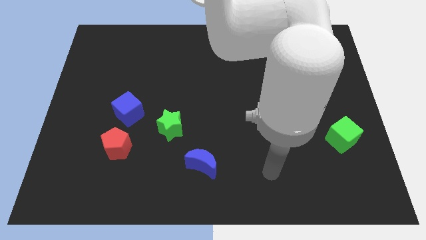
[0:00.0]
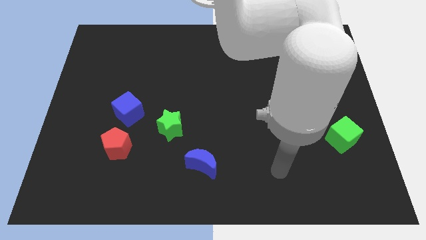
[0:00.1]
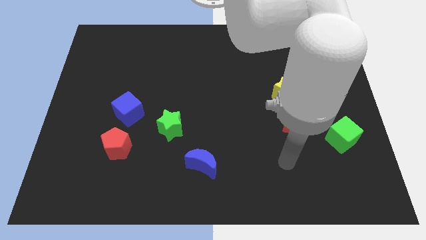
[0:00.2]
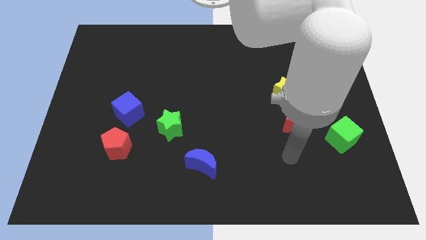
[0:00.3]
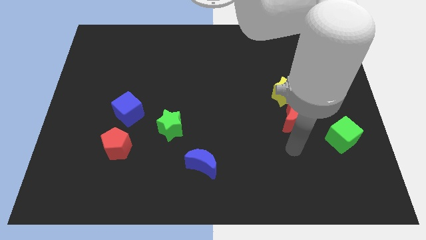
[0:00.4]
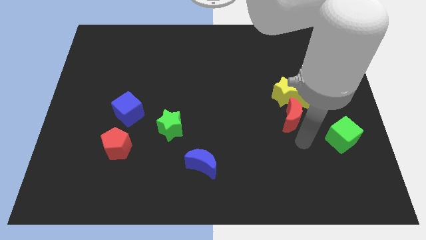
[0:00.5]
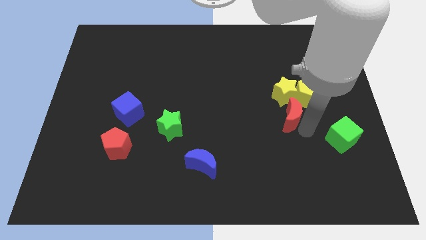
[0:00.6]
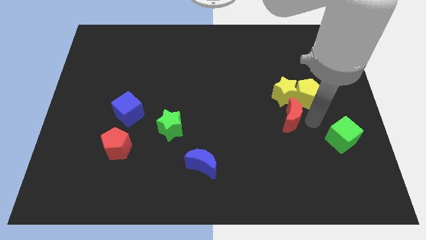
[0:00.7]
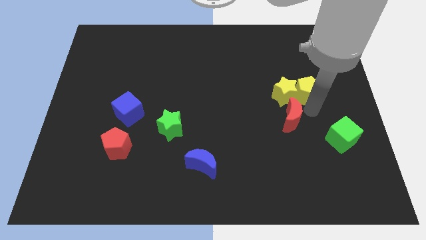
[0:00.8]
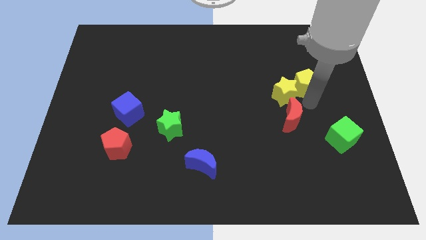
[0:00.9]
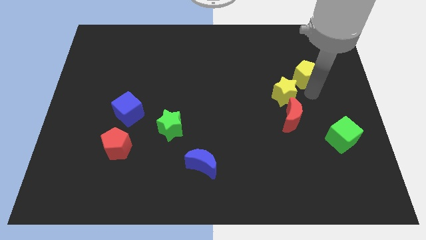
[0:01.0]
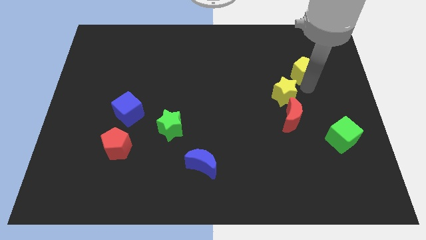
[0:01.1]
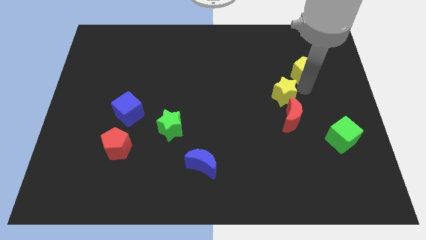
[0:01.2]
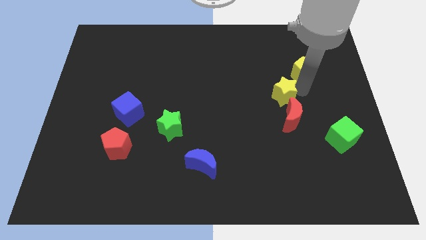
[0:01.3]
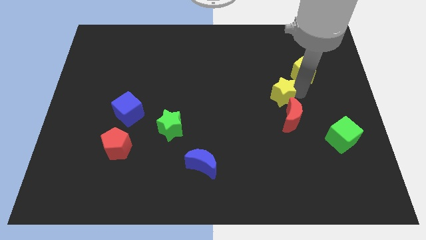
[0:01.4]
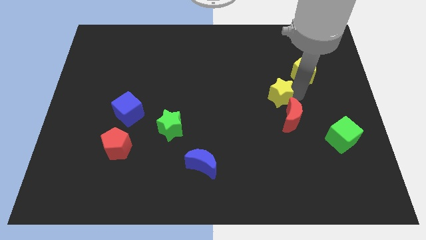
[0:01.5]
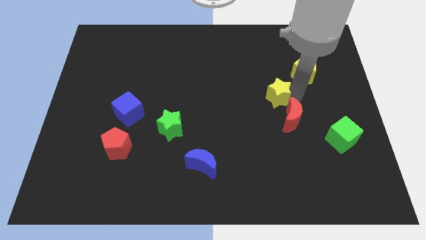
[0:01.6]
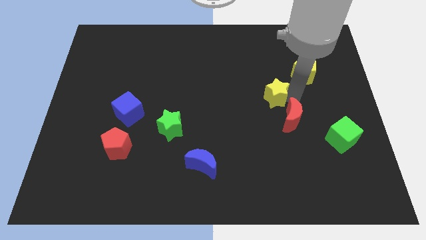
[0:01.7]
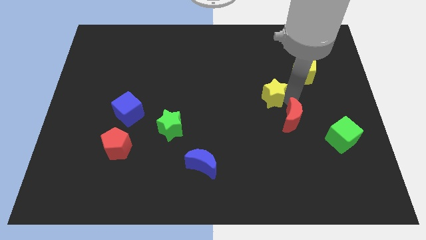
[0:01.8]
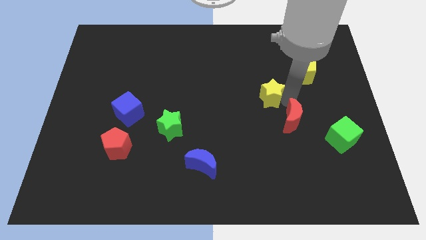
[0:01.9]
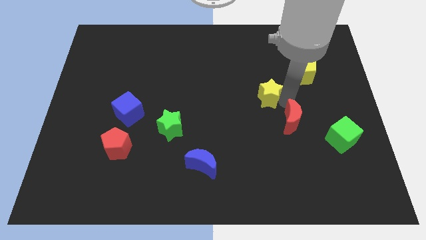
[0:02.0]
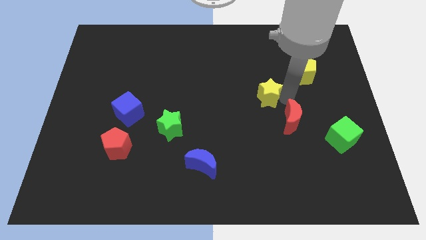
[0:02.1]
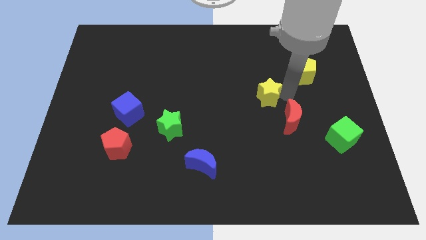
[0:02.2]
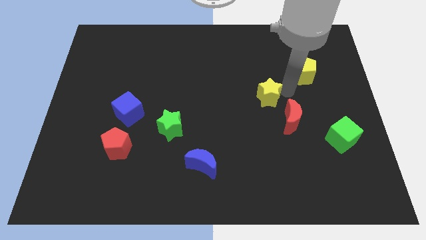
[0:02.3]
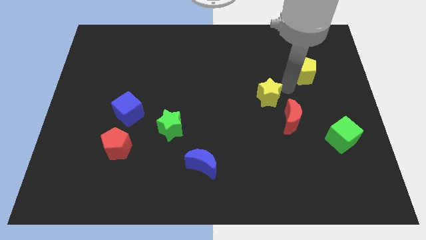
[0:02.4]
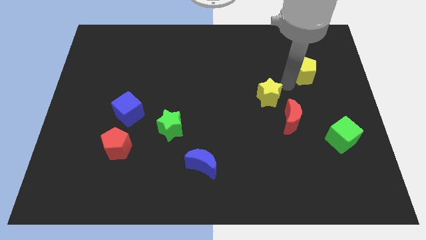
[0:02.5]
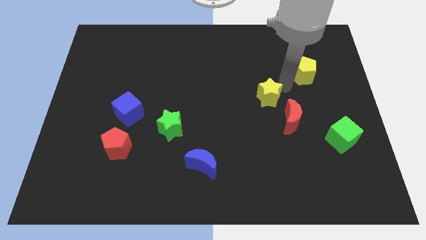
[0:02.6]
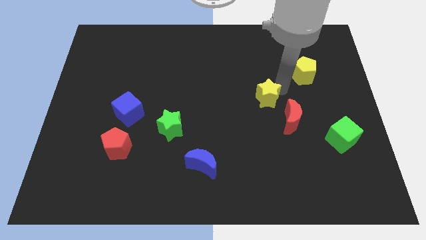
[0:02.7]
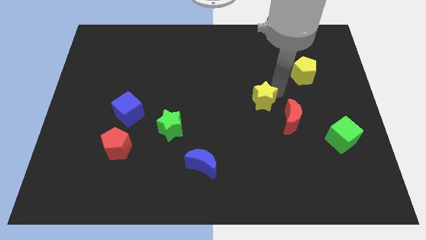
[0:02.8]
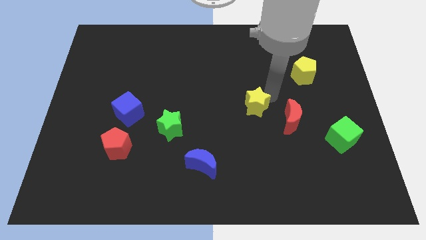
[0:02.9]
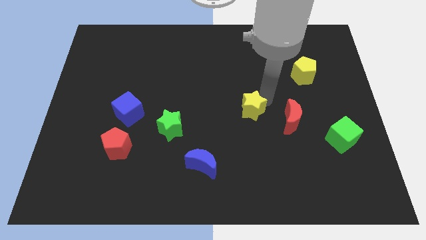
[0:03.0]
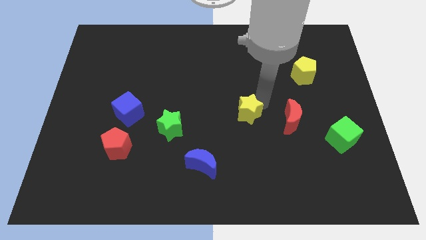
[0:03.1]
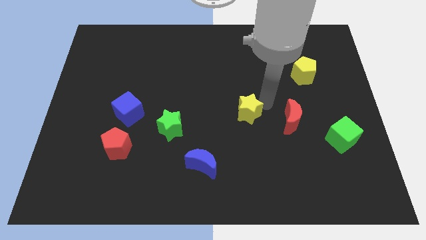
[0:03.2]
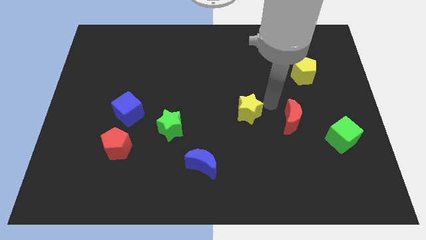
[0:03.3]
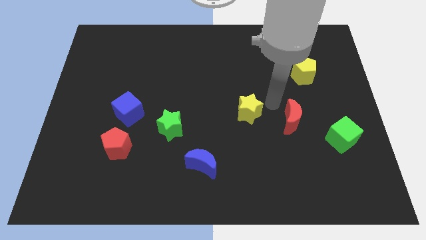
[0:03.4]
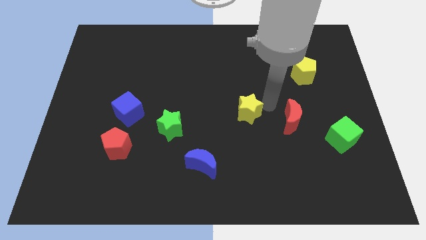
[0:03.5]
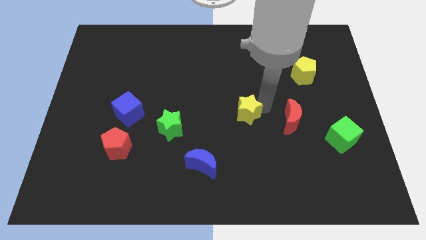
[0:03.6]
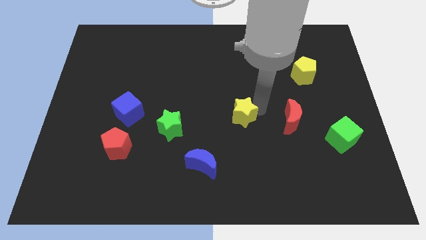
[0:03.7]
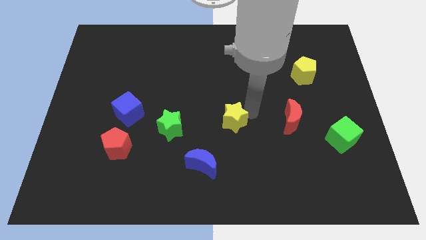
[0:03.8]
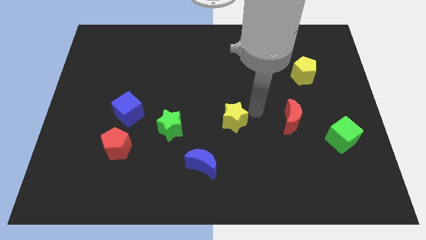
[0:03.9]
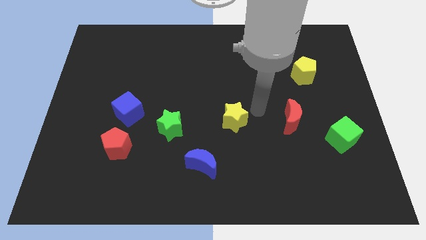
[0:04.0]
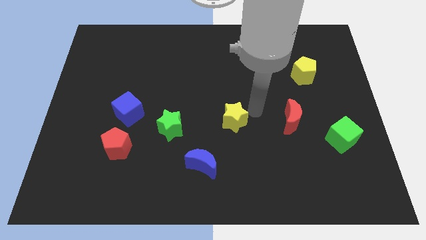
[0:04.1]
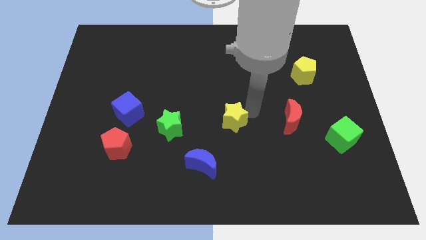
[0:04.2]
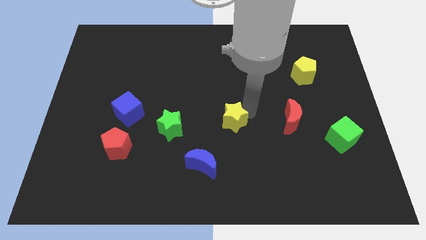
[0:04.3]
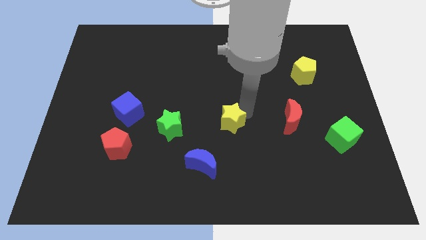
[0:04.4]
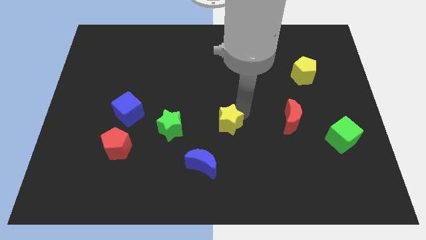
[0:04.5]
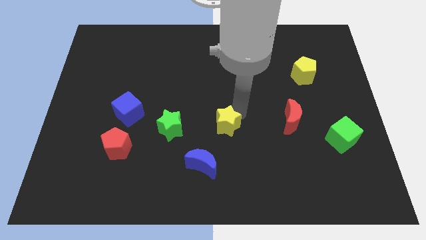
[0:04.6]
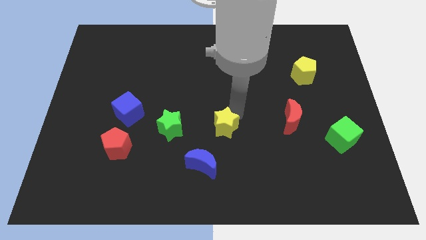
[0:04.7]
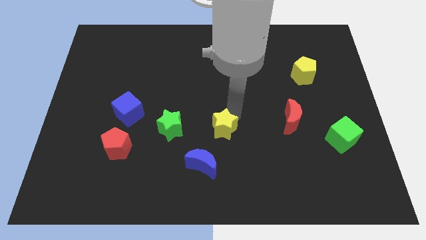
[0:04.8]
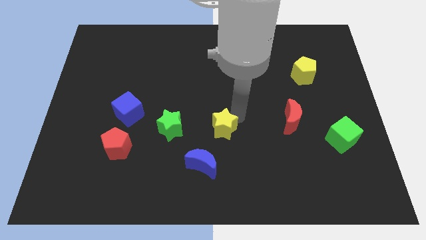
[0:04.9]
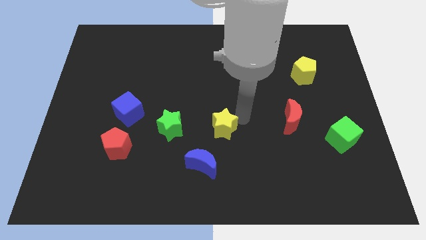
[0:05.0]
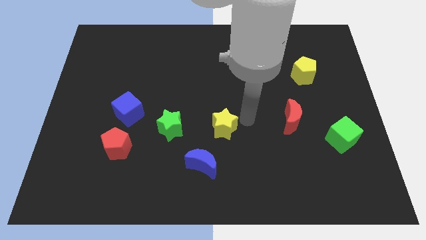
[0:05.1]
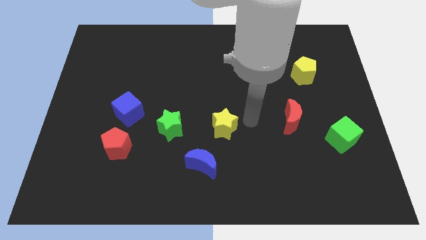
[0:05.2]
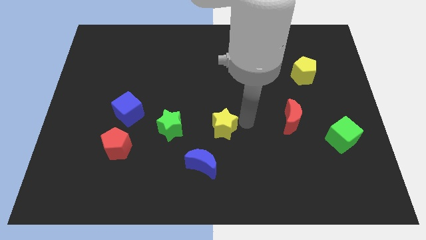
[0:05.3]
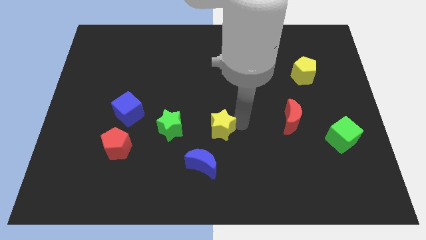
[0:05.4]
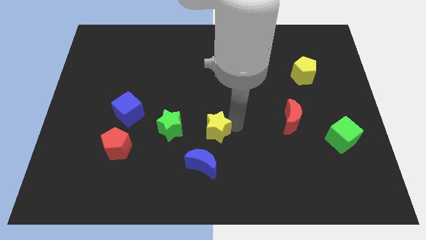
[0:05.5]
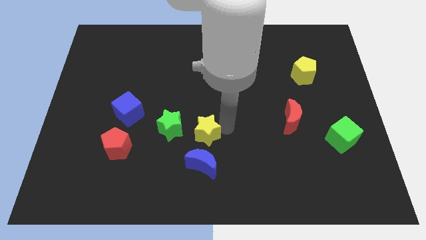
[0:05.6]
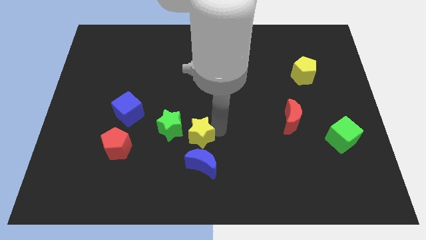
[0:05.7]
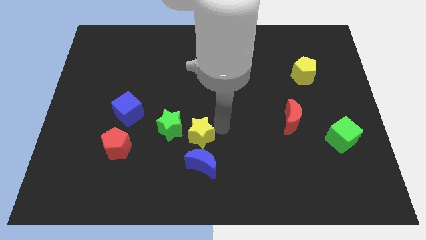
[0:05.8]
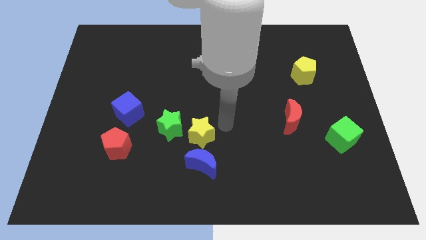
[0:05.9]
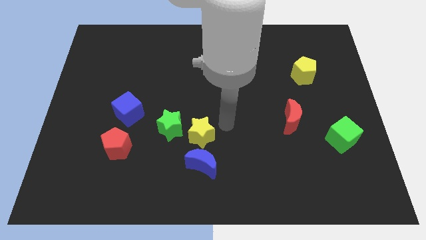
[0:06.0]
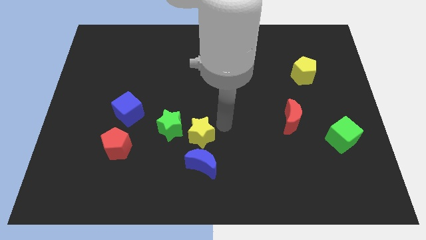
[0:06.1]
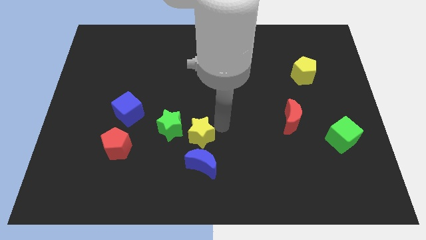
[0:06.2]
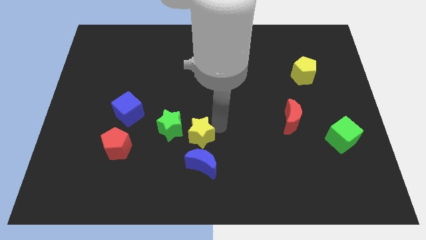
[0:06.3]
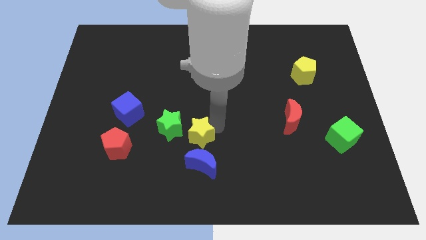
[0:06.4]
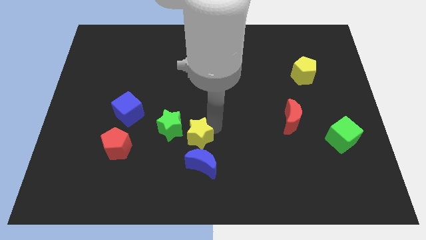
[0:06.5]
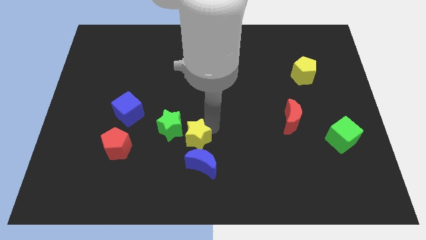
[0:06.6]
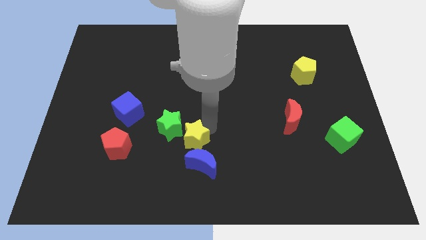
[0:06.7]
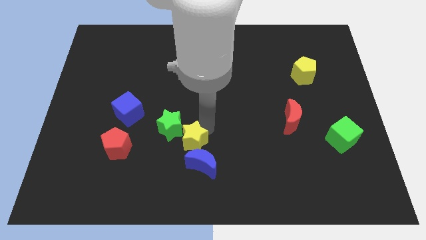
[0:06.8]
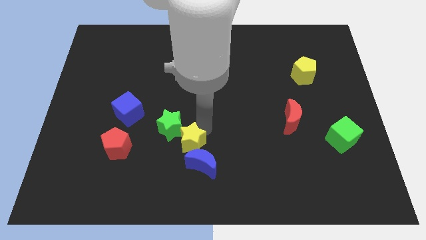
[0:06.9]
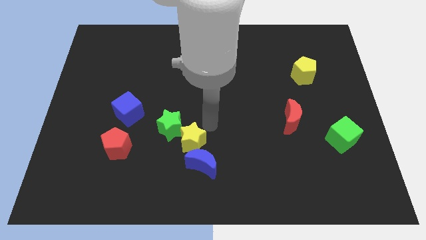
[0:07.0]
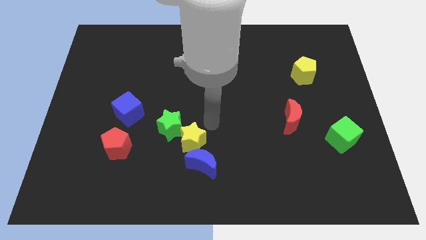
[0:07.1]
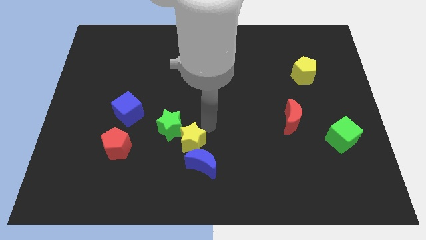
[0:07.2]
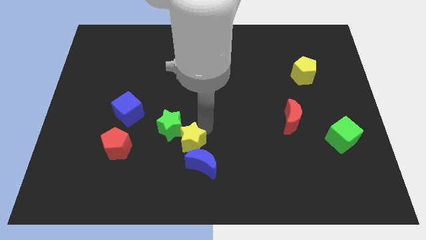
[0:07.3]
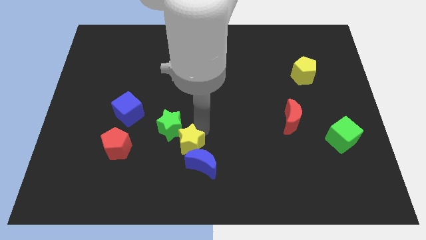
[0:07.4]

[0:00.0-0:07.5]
slide the yellow star to the bottom side of the green star
